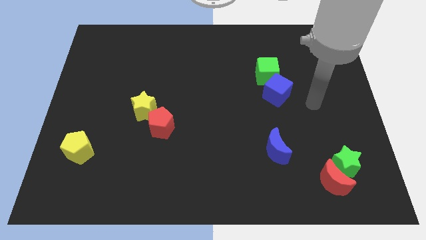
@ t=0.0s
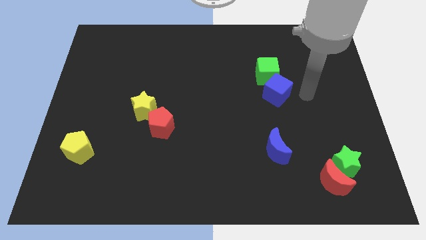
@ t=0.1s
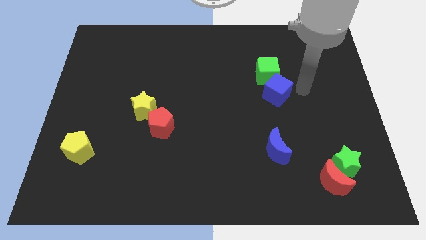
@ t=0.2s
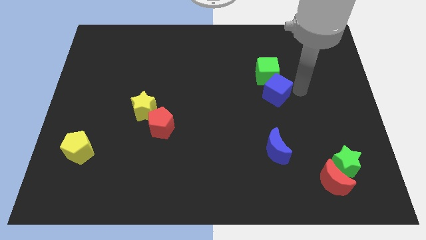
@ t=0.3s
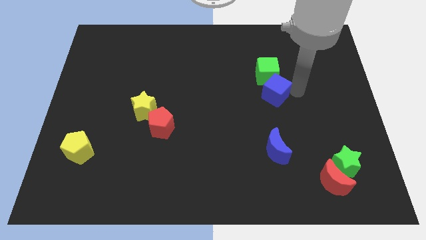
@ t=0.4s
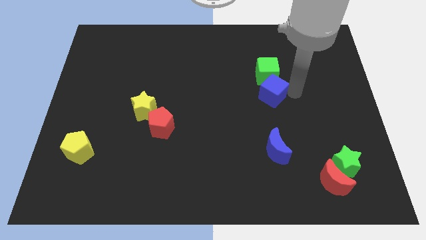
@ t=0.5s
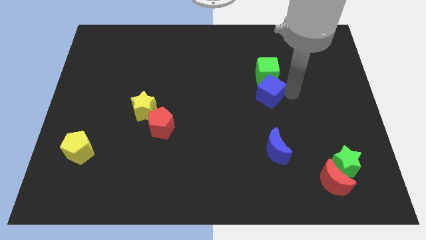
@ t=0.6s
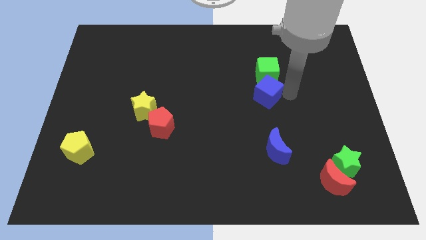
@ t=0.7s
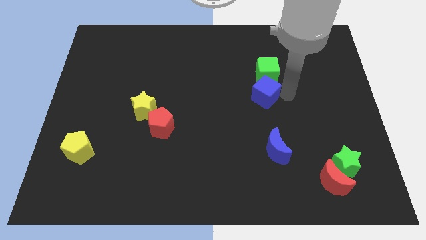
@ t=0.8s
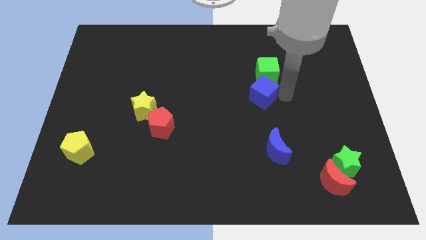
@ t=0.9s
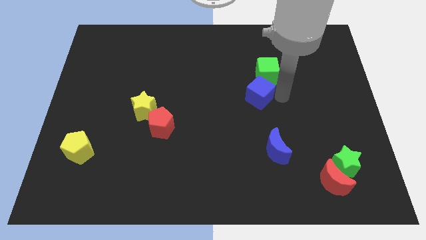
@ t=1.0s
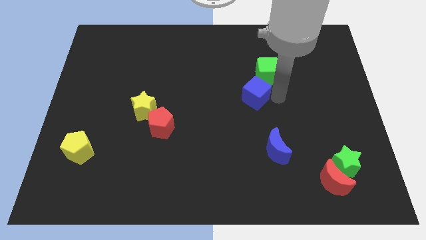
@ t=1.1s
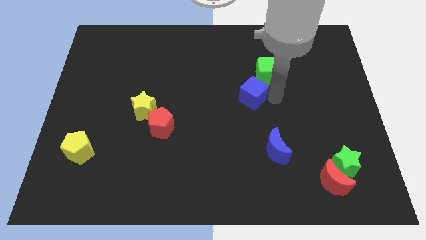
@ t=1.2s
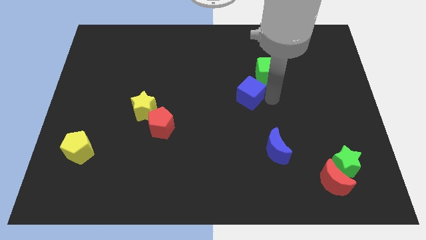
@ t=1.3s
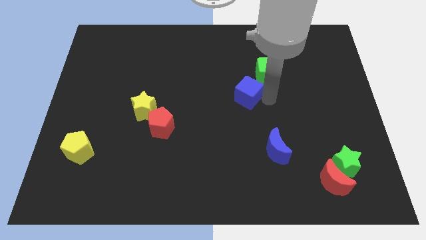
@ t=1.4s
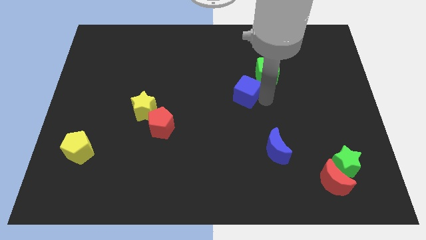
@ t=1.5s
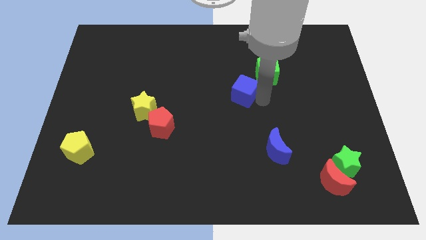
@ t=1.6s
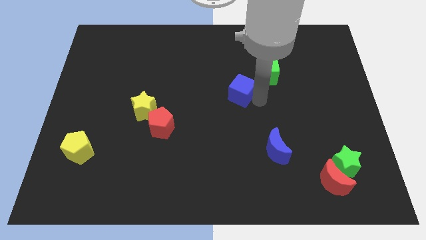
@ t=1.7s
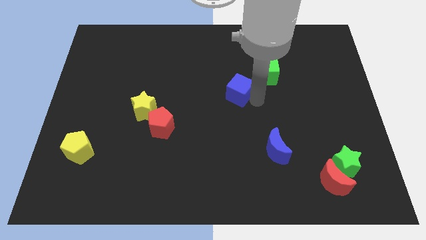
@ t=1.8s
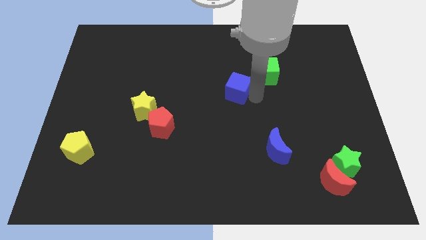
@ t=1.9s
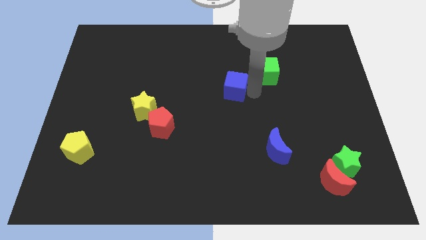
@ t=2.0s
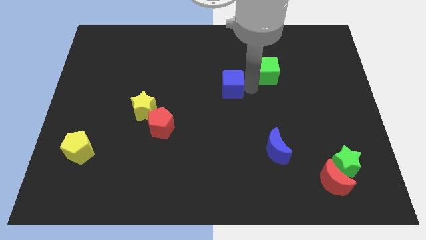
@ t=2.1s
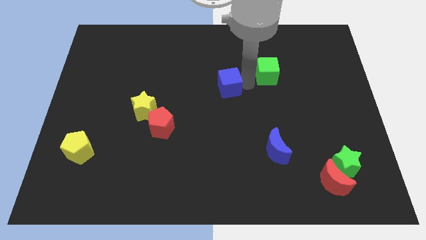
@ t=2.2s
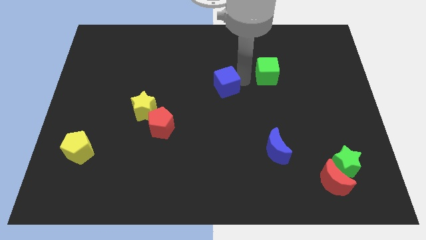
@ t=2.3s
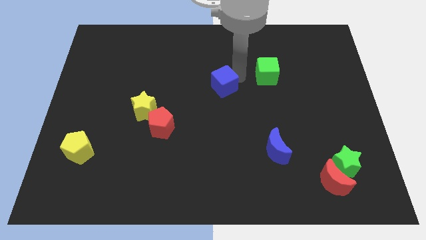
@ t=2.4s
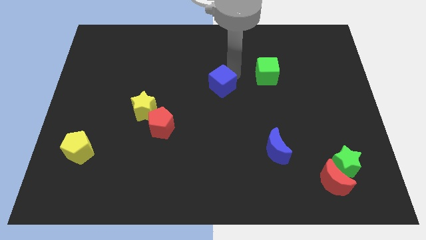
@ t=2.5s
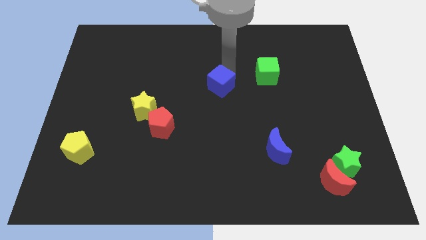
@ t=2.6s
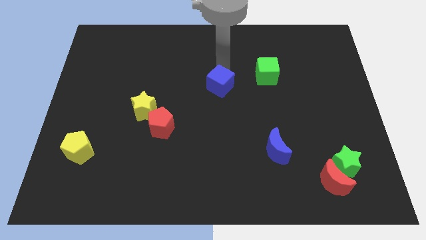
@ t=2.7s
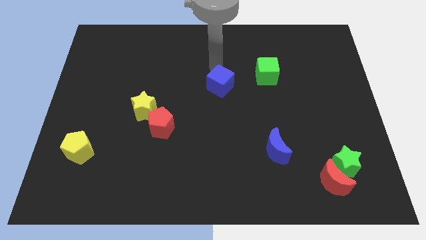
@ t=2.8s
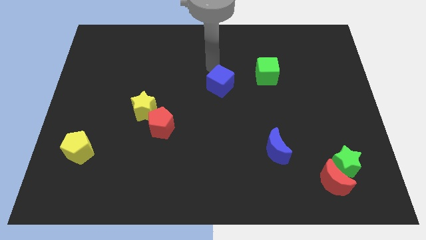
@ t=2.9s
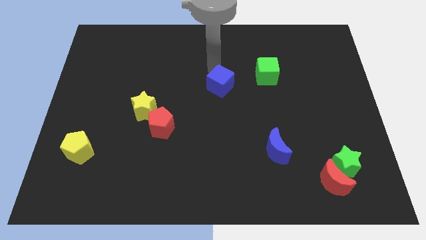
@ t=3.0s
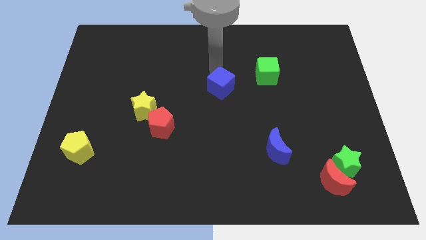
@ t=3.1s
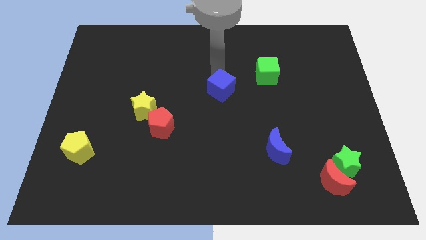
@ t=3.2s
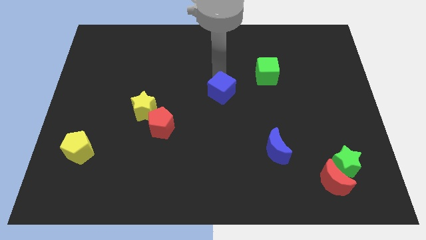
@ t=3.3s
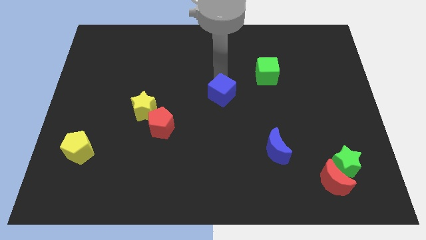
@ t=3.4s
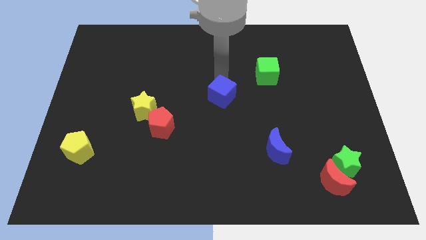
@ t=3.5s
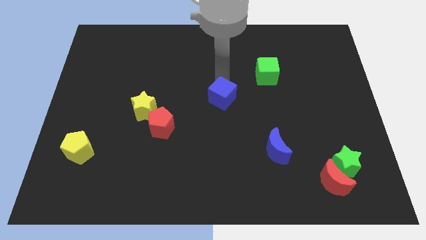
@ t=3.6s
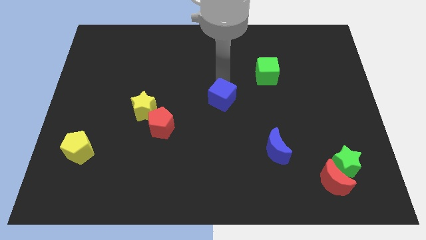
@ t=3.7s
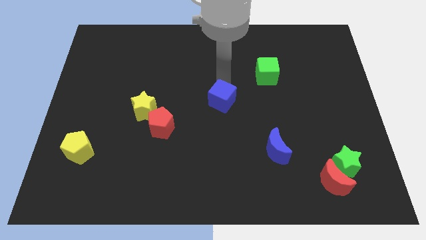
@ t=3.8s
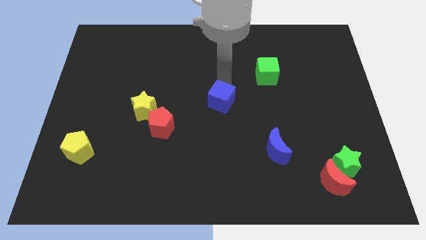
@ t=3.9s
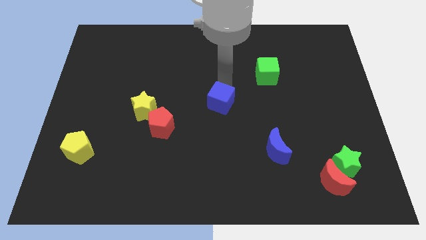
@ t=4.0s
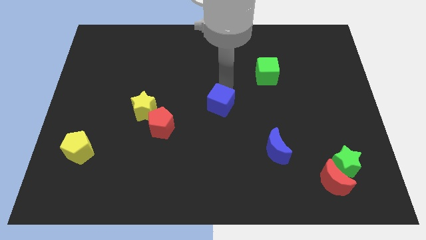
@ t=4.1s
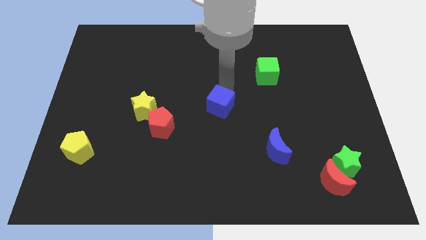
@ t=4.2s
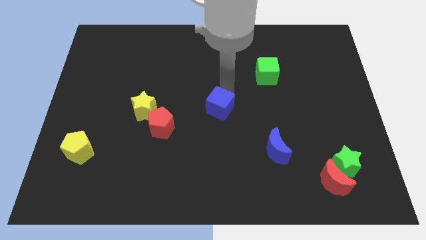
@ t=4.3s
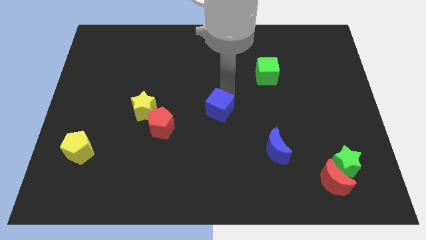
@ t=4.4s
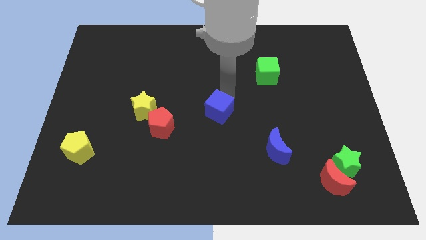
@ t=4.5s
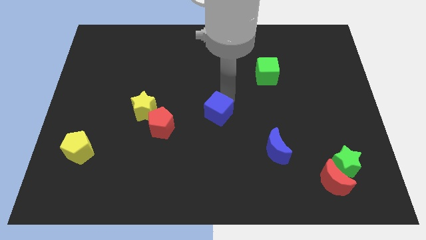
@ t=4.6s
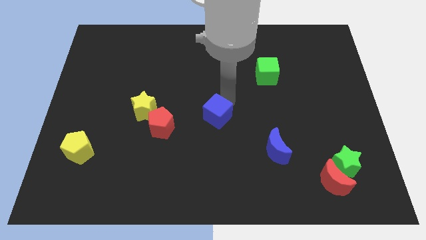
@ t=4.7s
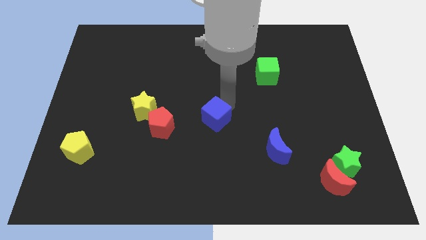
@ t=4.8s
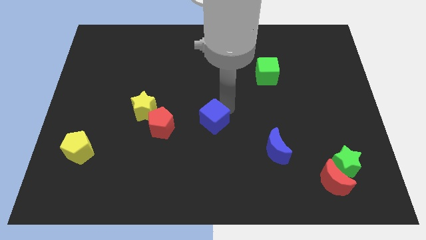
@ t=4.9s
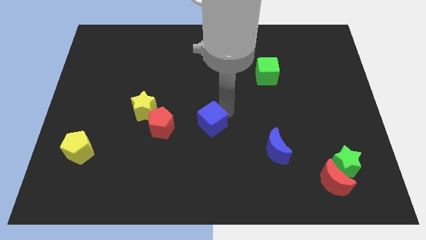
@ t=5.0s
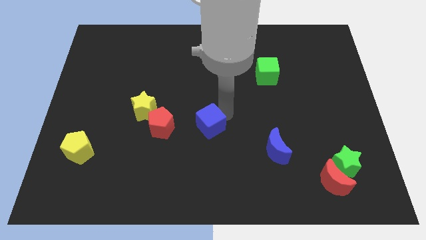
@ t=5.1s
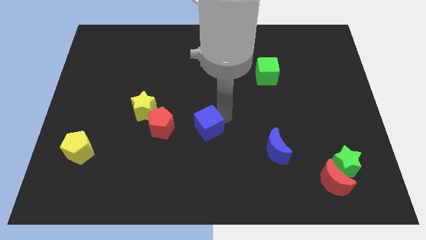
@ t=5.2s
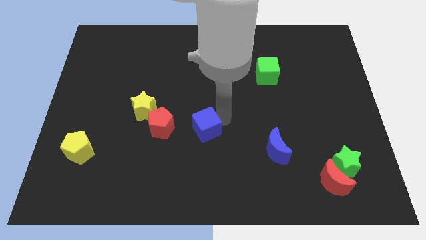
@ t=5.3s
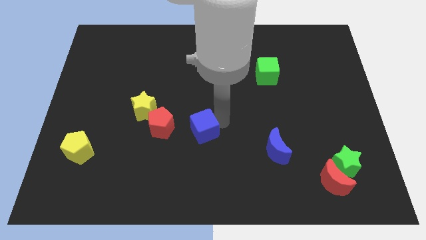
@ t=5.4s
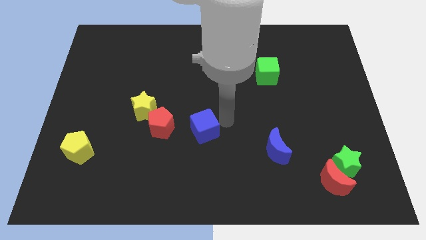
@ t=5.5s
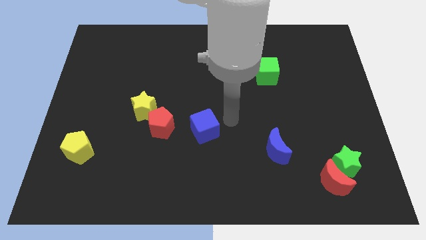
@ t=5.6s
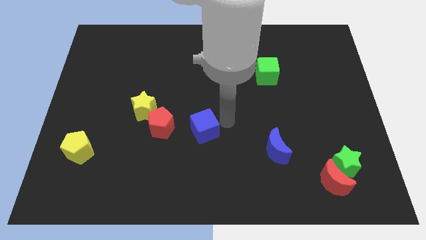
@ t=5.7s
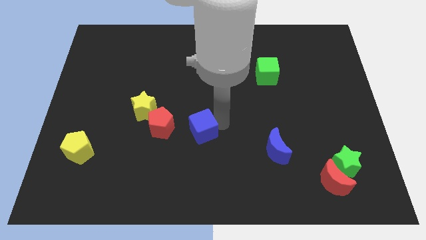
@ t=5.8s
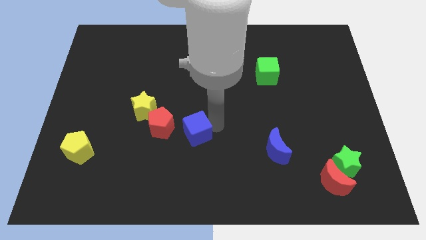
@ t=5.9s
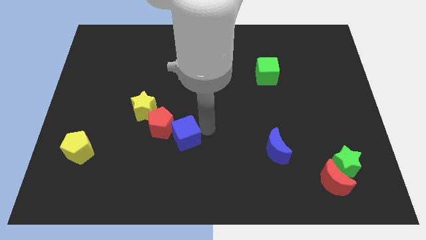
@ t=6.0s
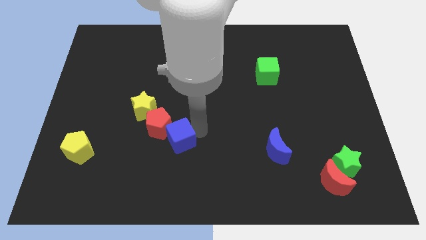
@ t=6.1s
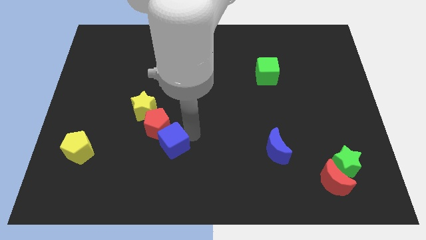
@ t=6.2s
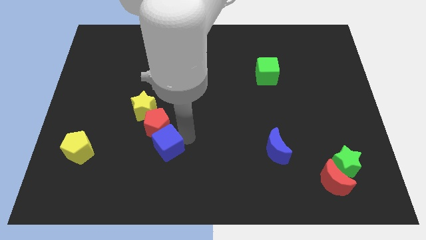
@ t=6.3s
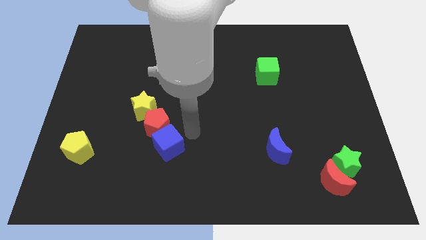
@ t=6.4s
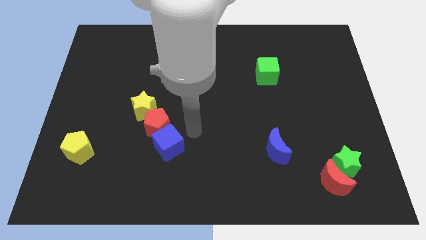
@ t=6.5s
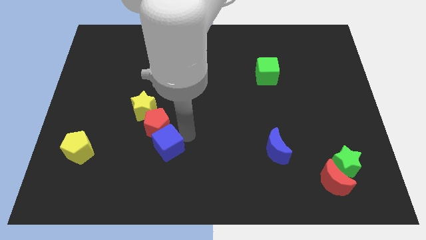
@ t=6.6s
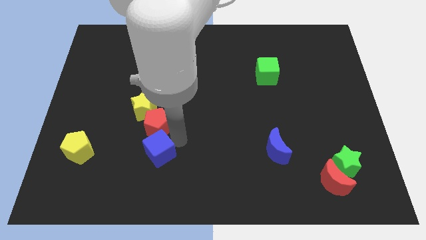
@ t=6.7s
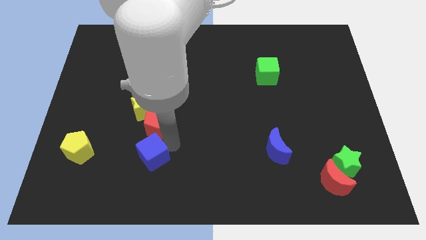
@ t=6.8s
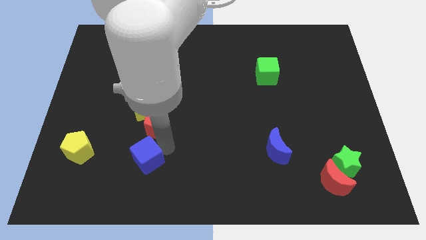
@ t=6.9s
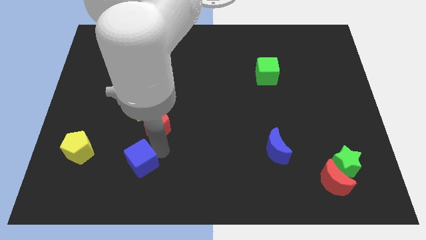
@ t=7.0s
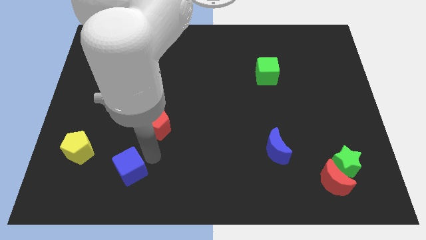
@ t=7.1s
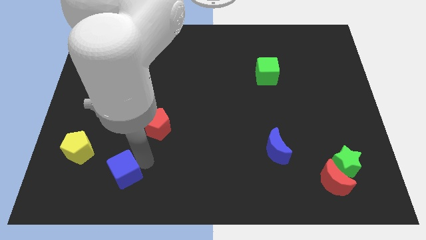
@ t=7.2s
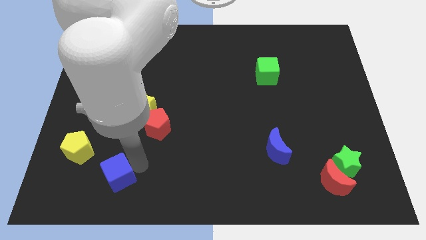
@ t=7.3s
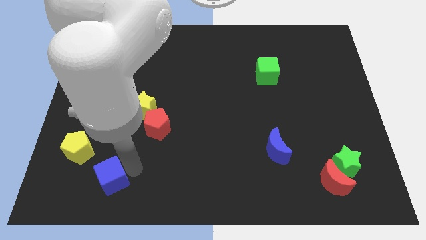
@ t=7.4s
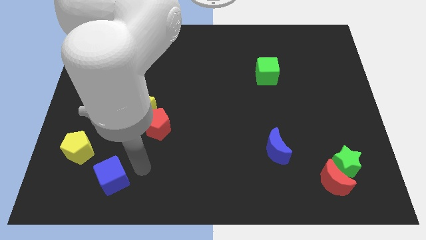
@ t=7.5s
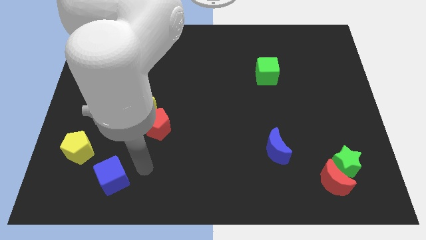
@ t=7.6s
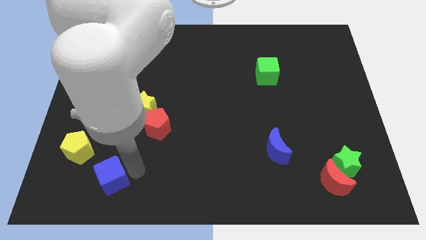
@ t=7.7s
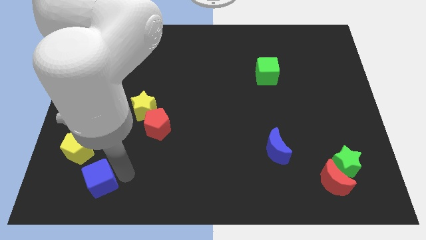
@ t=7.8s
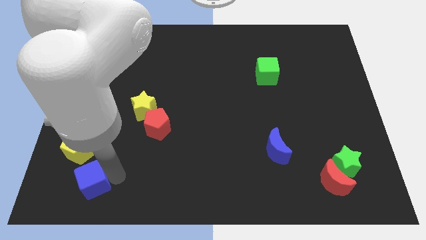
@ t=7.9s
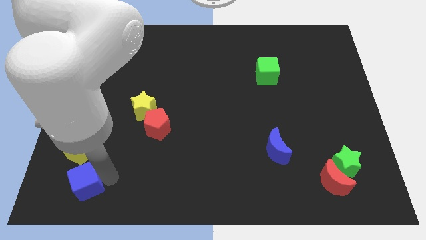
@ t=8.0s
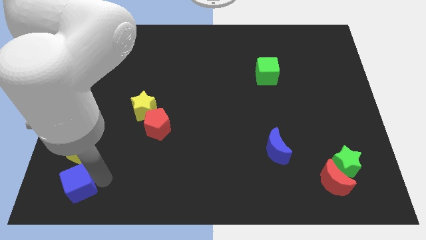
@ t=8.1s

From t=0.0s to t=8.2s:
slide the blue cube to the bottom left corner
